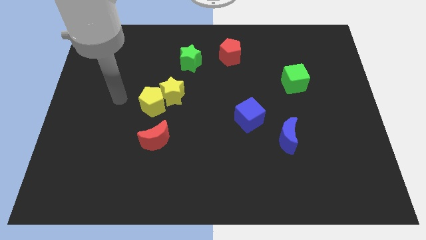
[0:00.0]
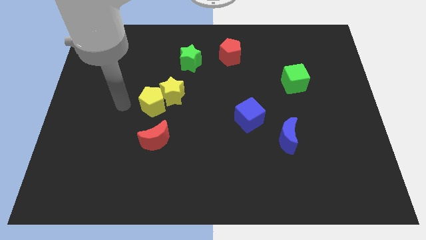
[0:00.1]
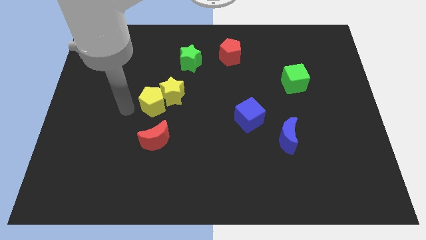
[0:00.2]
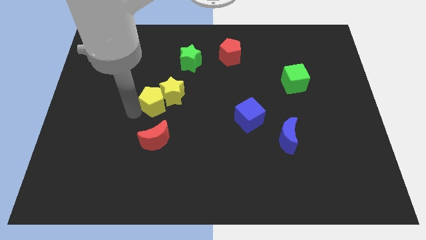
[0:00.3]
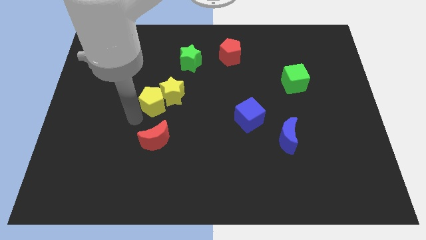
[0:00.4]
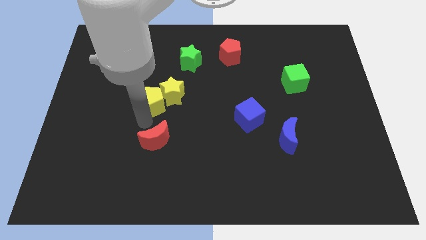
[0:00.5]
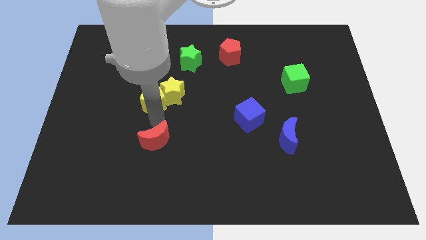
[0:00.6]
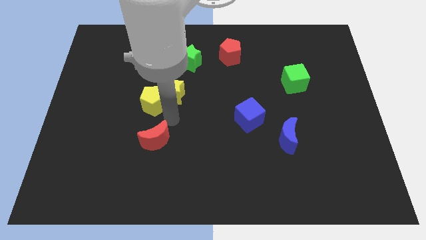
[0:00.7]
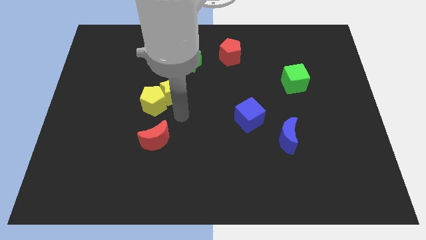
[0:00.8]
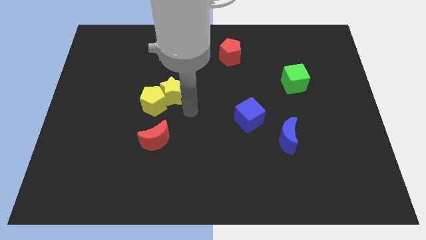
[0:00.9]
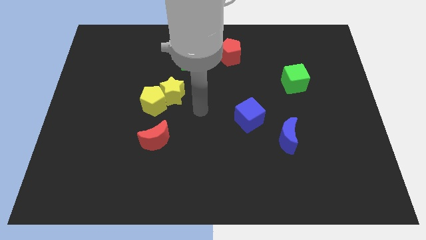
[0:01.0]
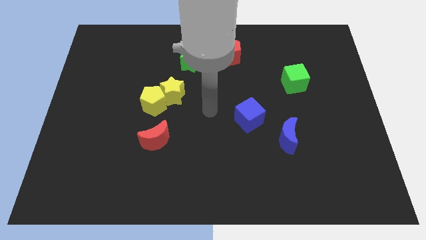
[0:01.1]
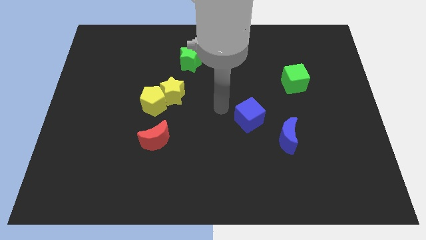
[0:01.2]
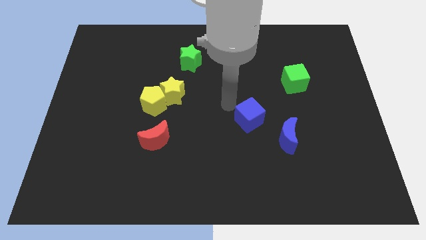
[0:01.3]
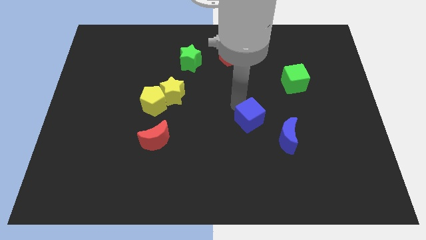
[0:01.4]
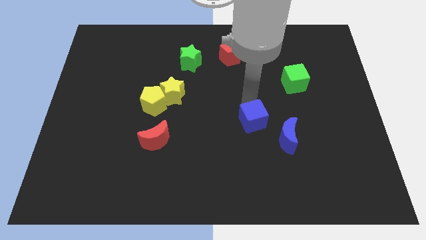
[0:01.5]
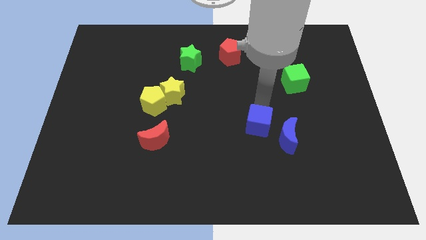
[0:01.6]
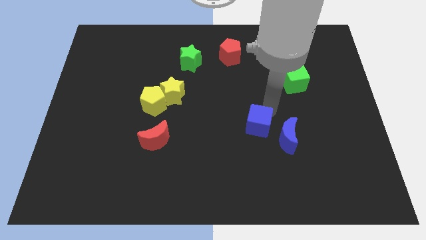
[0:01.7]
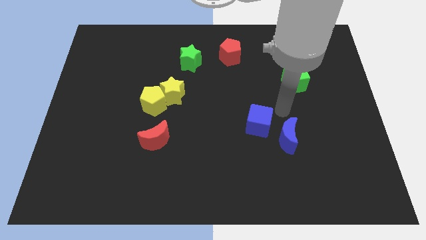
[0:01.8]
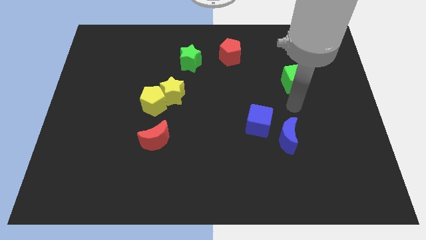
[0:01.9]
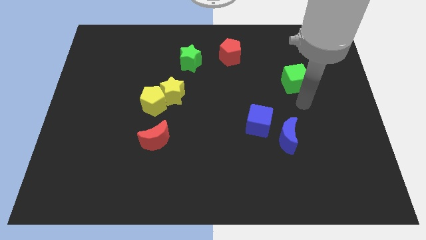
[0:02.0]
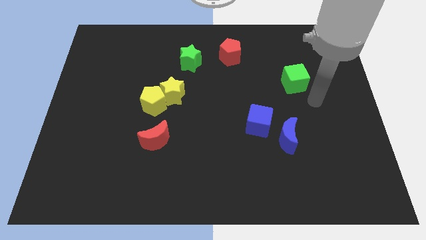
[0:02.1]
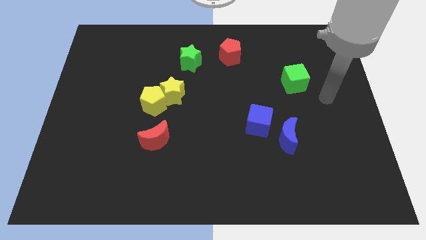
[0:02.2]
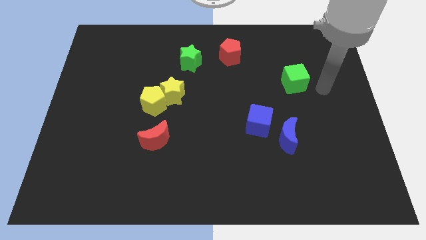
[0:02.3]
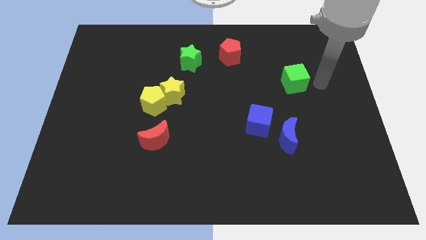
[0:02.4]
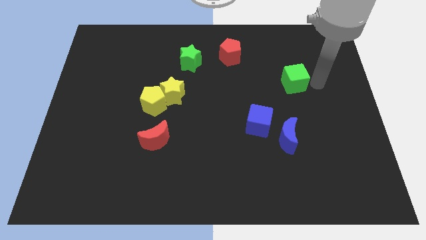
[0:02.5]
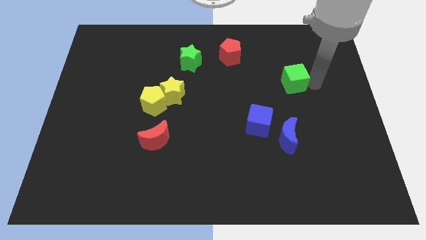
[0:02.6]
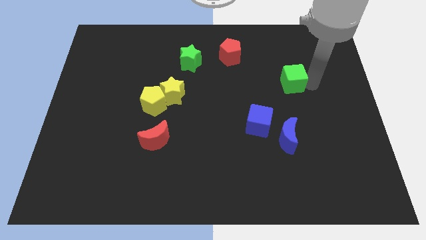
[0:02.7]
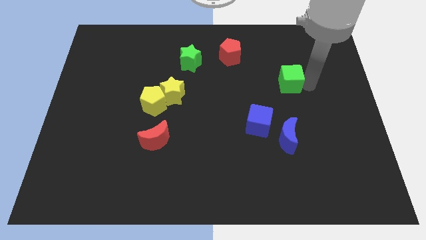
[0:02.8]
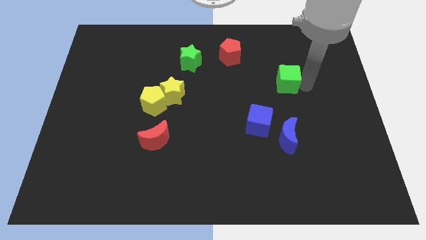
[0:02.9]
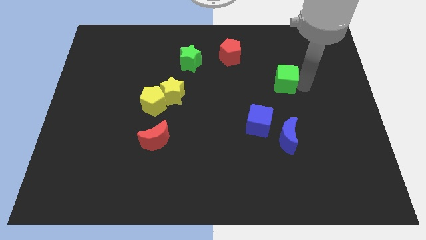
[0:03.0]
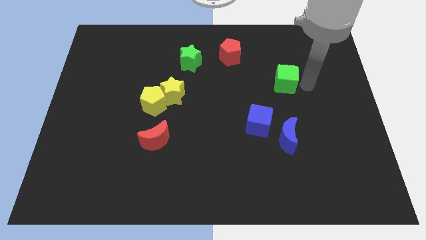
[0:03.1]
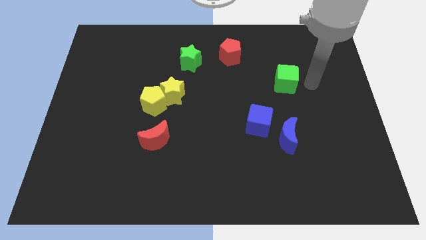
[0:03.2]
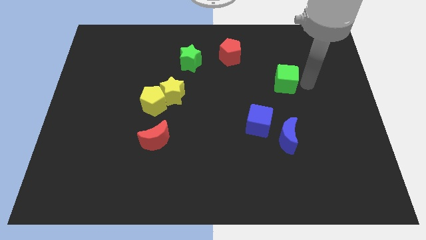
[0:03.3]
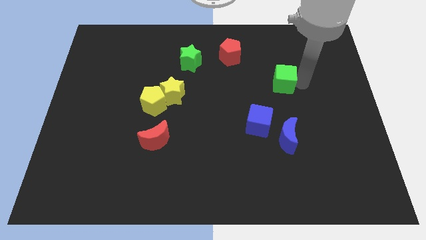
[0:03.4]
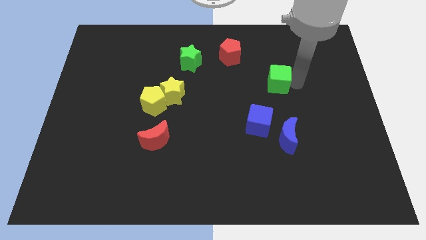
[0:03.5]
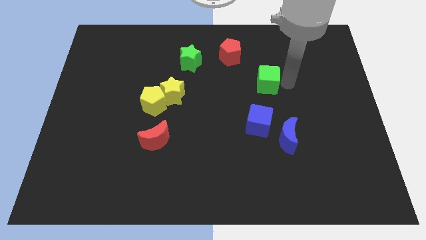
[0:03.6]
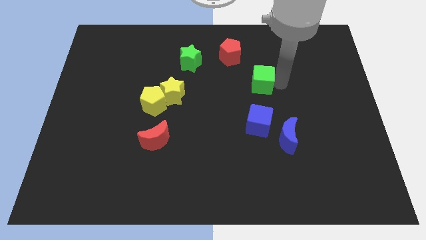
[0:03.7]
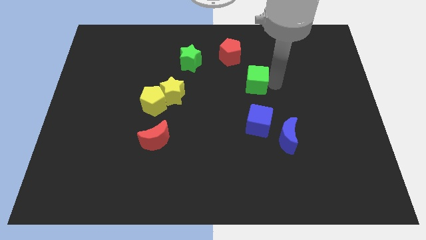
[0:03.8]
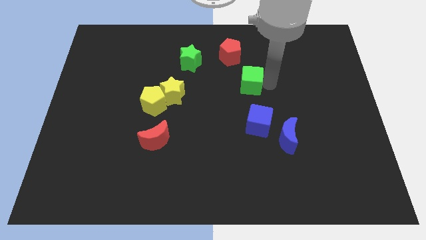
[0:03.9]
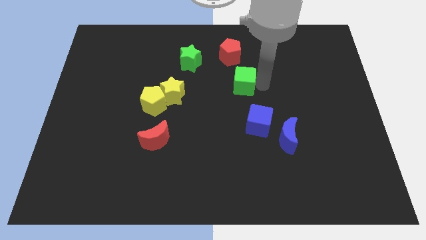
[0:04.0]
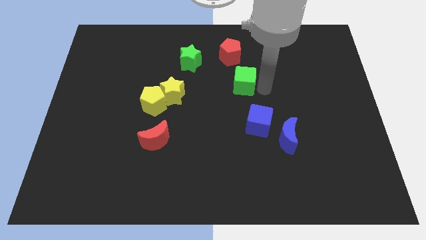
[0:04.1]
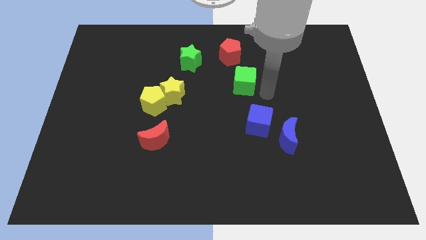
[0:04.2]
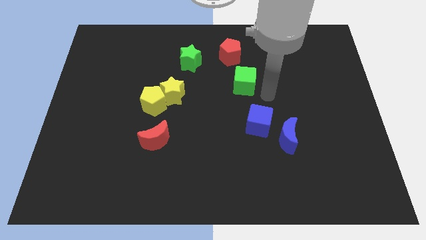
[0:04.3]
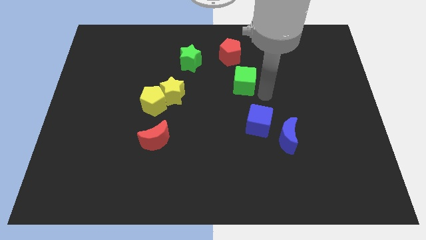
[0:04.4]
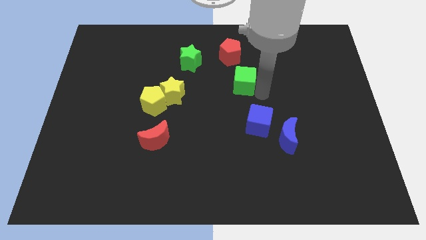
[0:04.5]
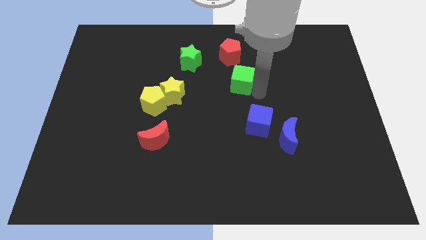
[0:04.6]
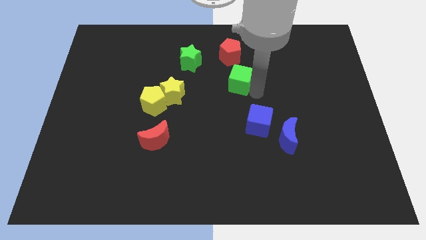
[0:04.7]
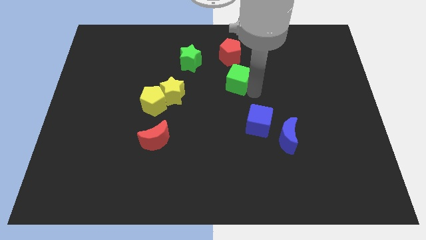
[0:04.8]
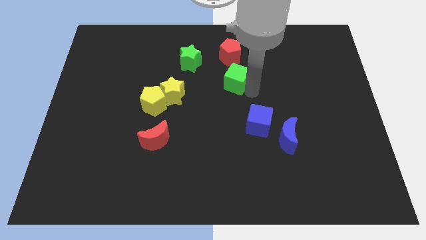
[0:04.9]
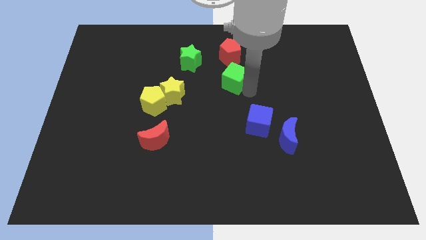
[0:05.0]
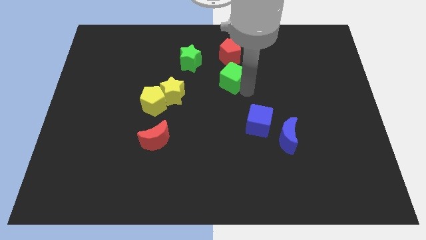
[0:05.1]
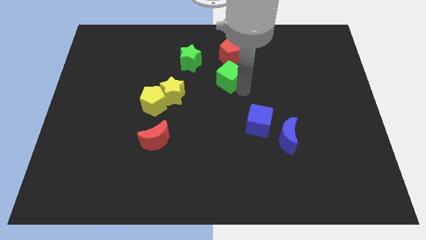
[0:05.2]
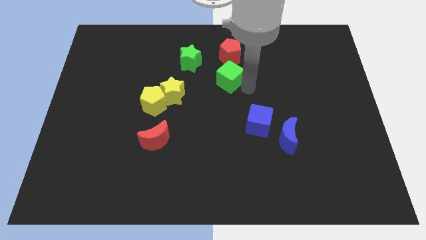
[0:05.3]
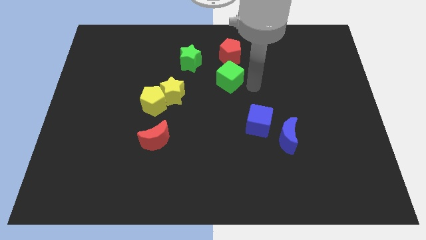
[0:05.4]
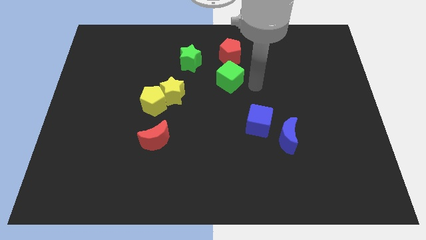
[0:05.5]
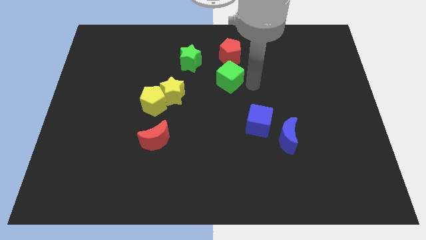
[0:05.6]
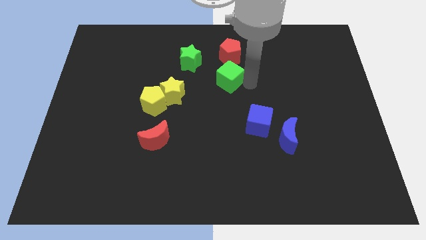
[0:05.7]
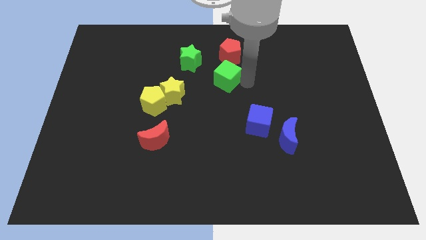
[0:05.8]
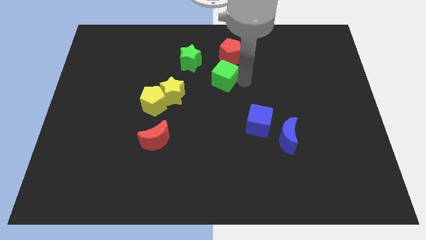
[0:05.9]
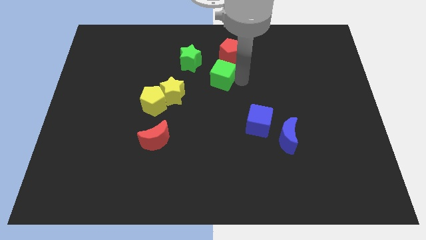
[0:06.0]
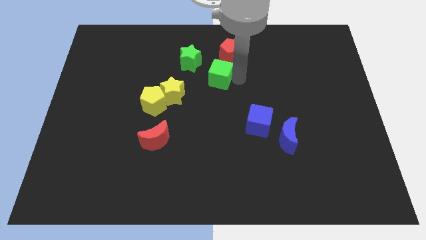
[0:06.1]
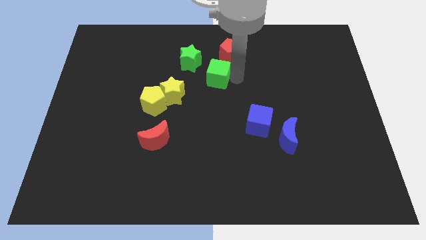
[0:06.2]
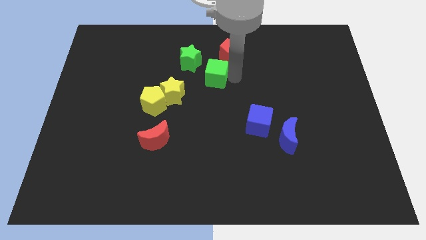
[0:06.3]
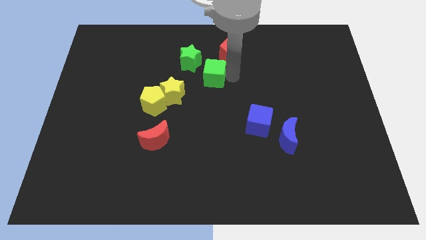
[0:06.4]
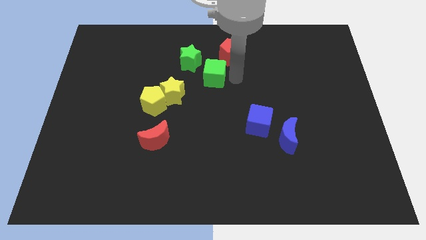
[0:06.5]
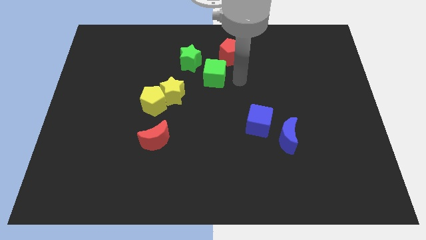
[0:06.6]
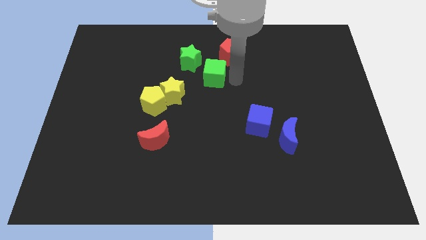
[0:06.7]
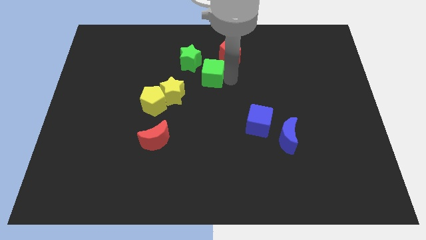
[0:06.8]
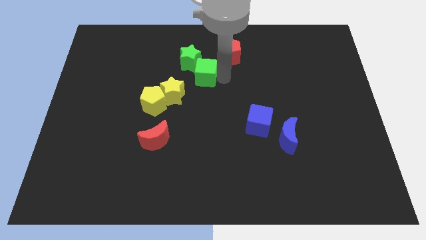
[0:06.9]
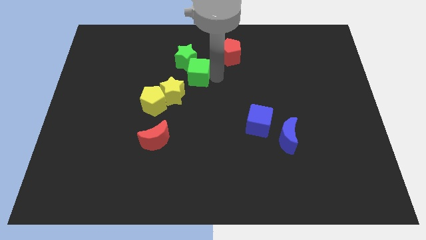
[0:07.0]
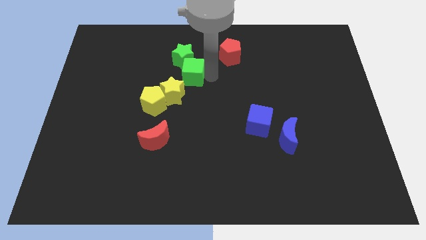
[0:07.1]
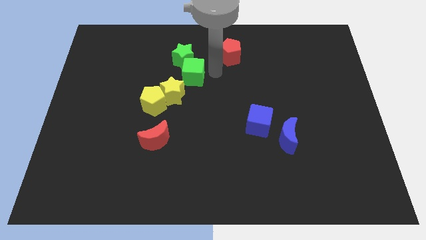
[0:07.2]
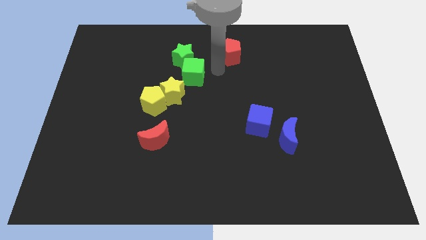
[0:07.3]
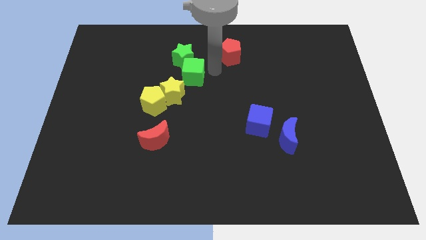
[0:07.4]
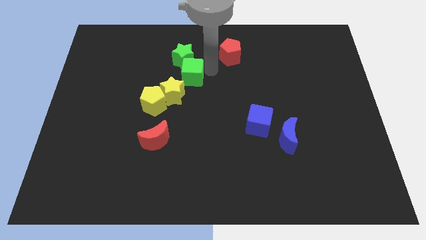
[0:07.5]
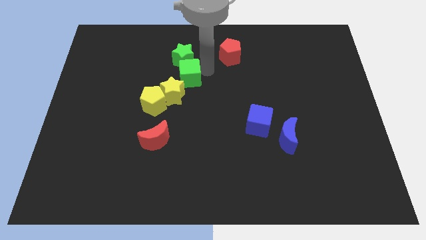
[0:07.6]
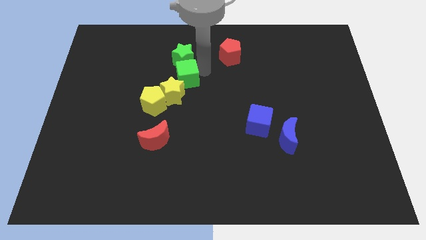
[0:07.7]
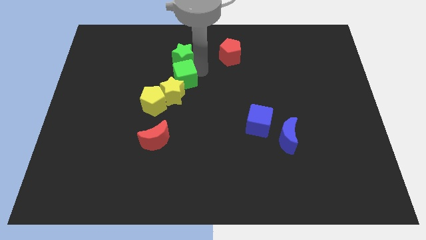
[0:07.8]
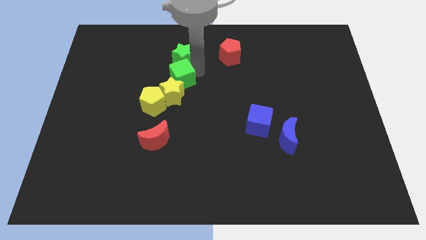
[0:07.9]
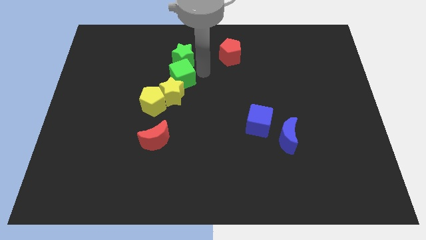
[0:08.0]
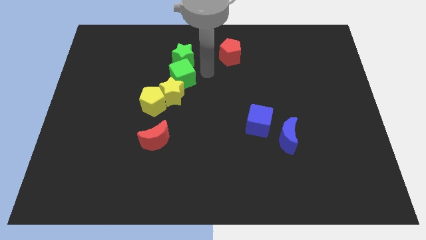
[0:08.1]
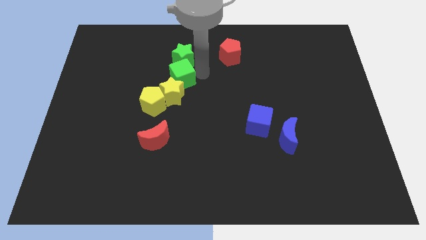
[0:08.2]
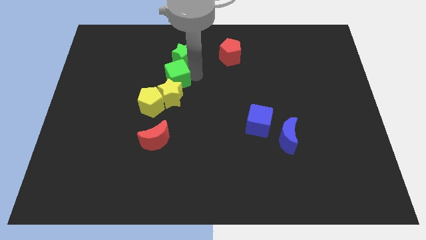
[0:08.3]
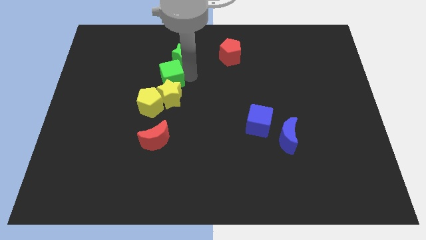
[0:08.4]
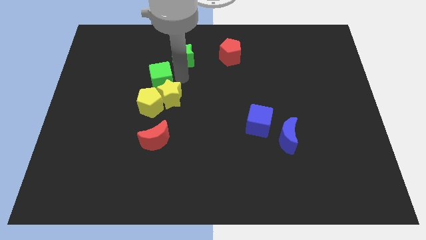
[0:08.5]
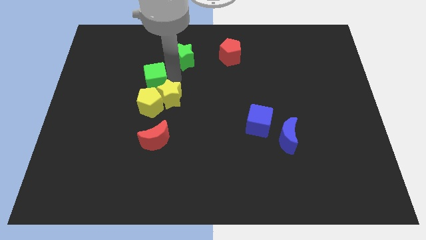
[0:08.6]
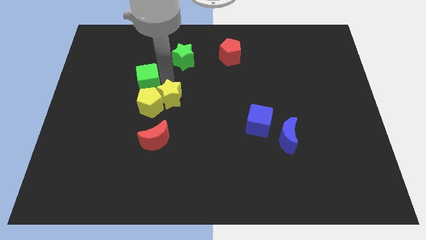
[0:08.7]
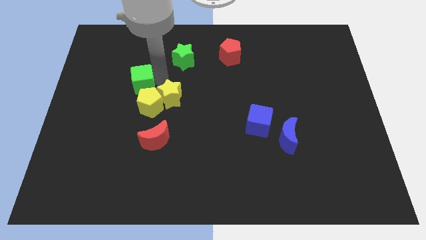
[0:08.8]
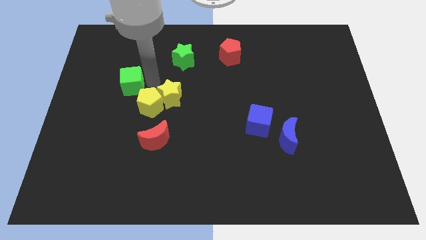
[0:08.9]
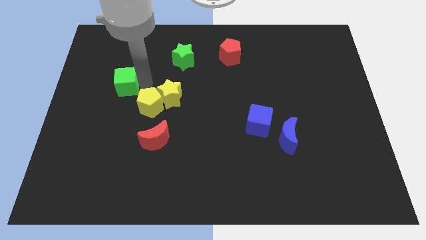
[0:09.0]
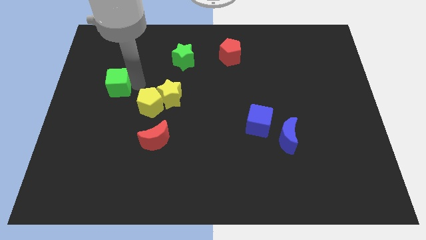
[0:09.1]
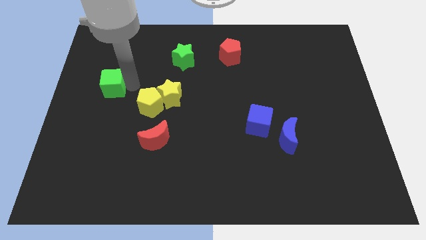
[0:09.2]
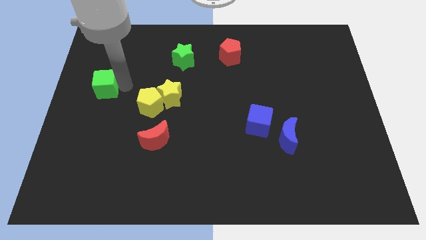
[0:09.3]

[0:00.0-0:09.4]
push the green cube to the left side
